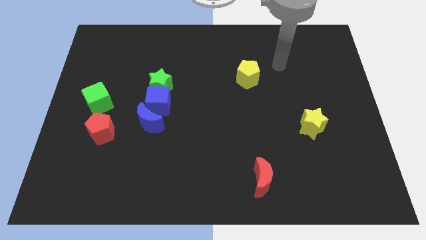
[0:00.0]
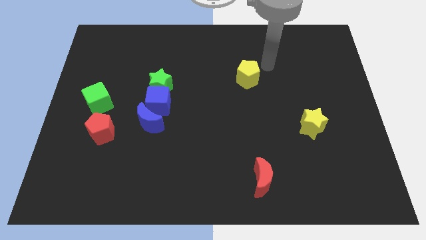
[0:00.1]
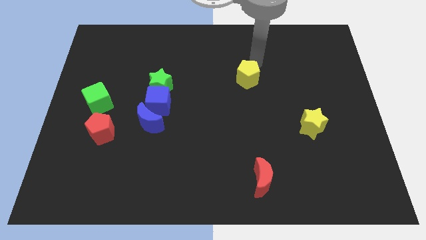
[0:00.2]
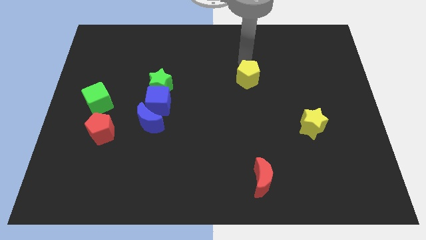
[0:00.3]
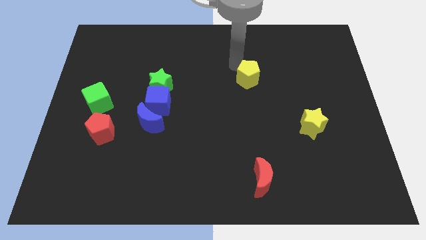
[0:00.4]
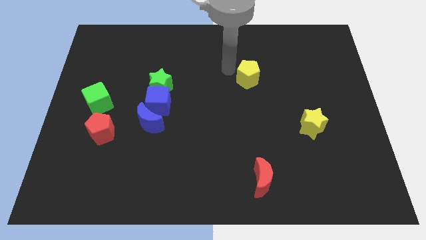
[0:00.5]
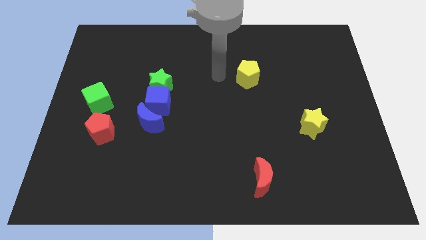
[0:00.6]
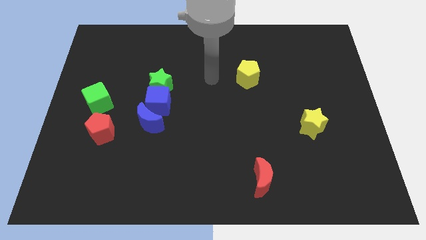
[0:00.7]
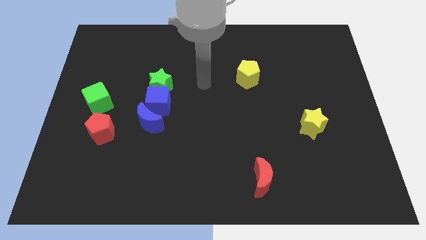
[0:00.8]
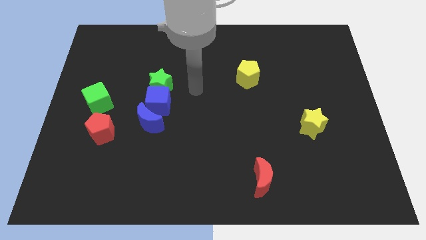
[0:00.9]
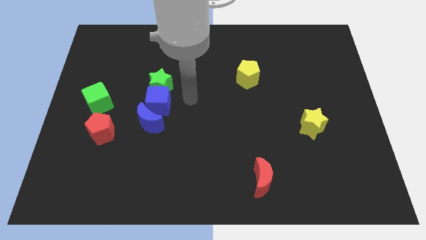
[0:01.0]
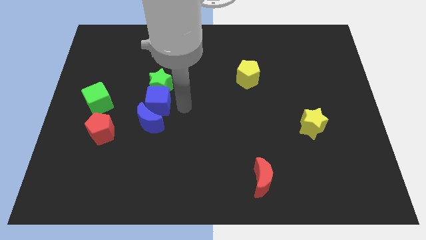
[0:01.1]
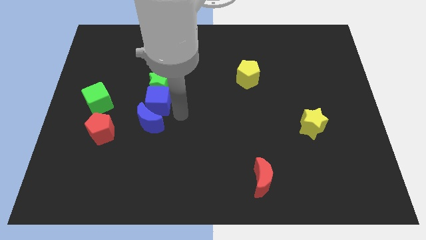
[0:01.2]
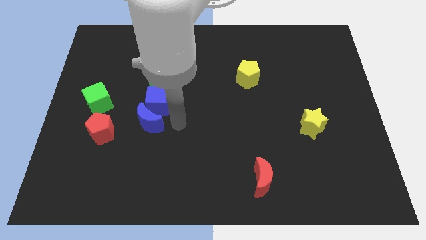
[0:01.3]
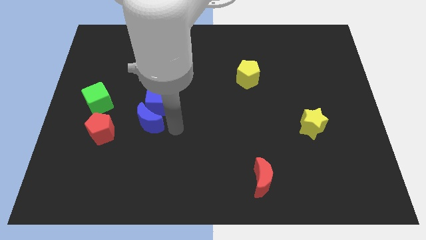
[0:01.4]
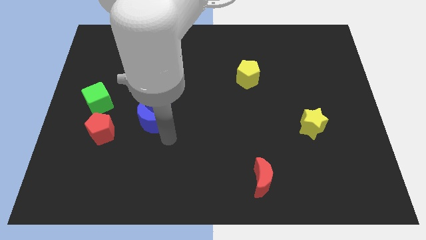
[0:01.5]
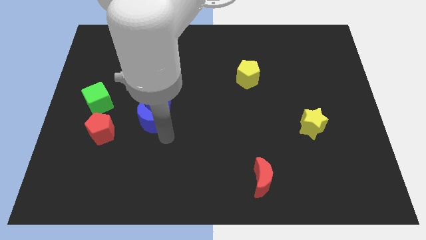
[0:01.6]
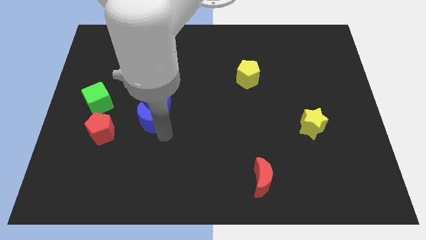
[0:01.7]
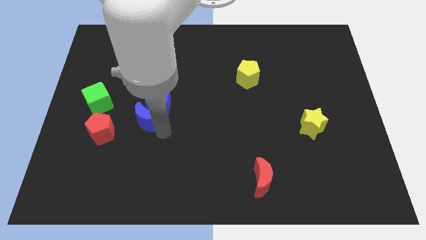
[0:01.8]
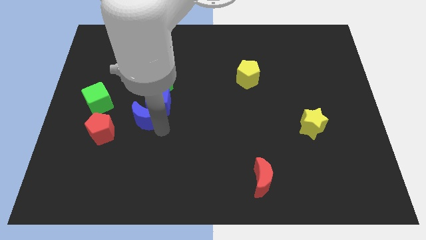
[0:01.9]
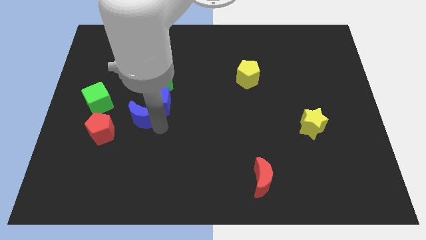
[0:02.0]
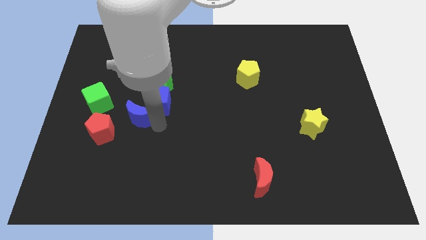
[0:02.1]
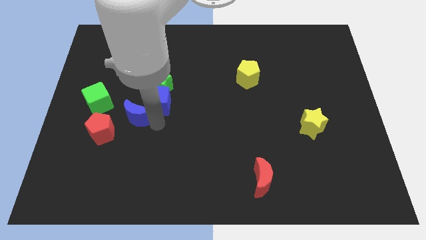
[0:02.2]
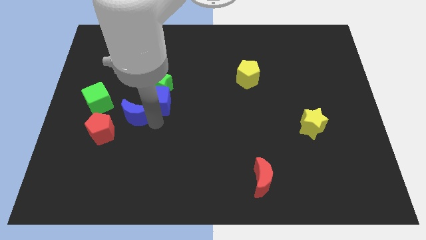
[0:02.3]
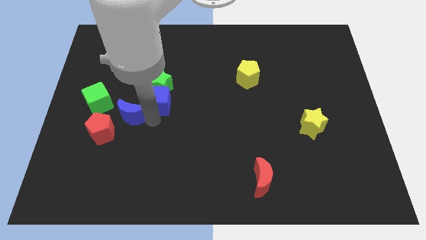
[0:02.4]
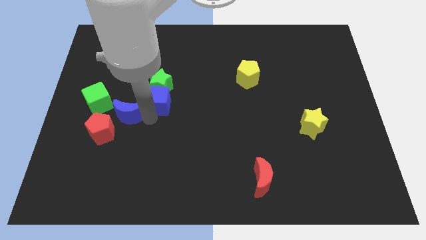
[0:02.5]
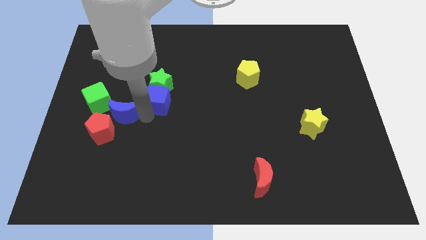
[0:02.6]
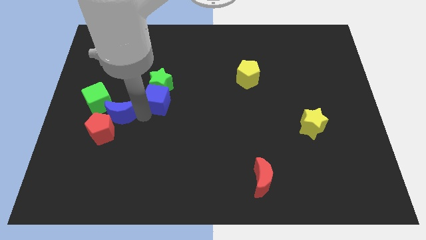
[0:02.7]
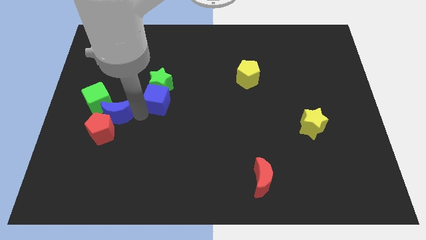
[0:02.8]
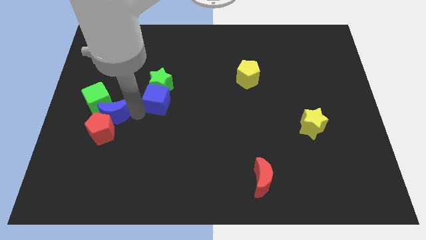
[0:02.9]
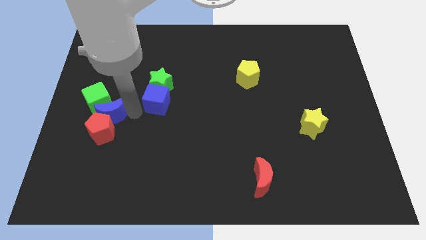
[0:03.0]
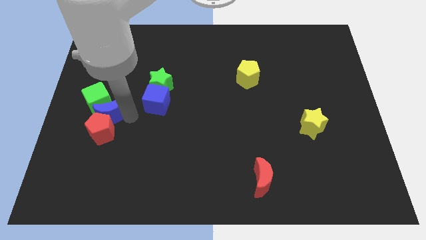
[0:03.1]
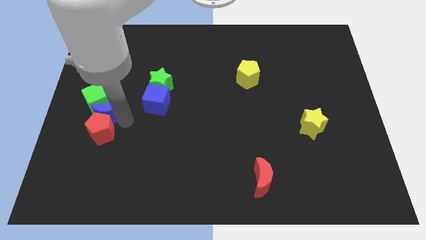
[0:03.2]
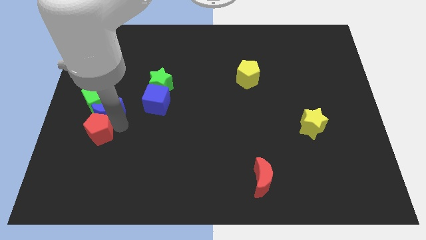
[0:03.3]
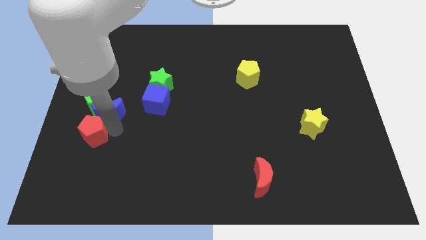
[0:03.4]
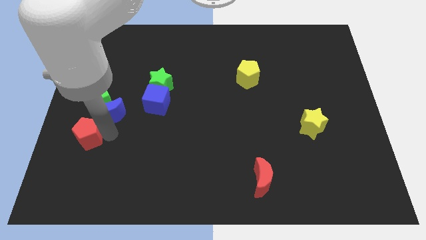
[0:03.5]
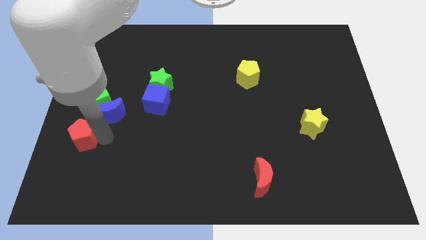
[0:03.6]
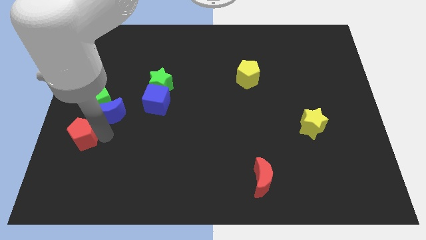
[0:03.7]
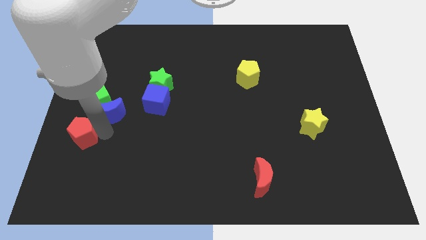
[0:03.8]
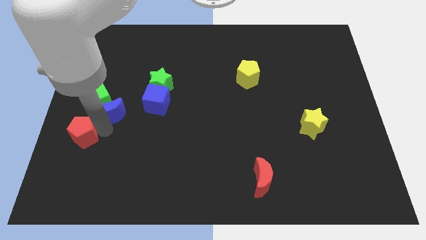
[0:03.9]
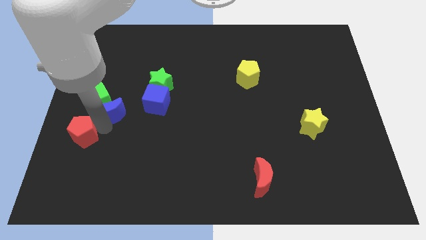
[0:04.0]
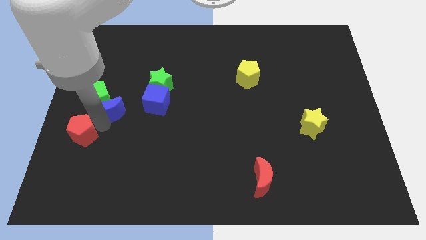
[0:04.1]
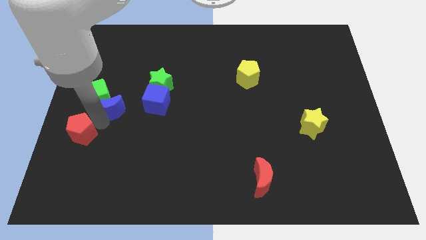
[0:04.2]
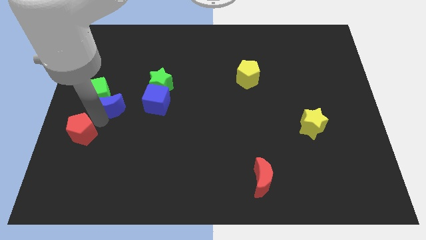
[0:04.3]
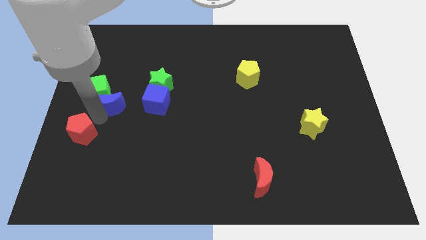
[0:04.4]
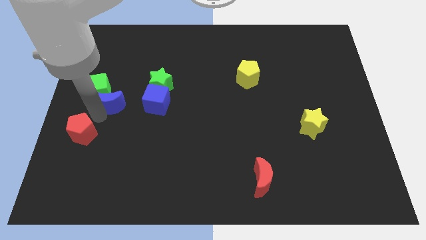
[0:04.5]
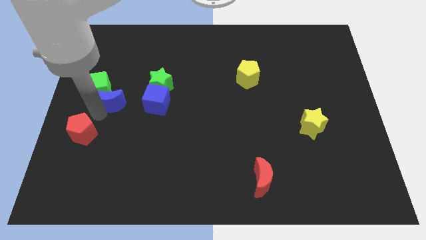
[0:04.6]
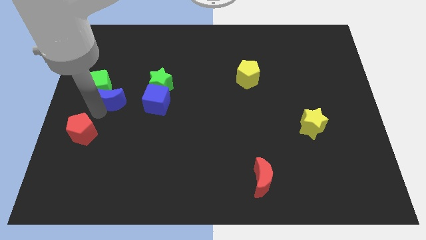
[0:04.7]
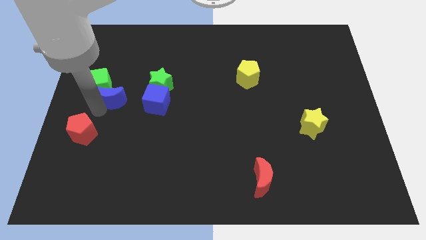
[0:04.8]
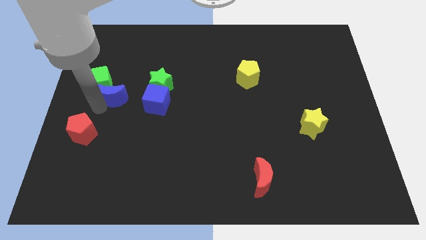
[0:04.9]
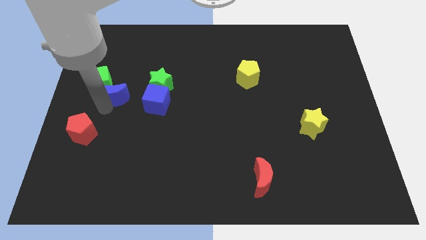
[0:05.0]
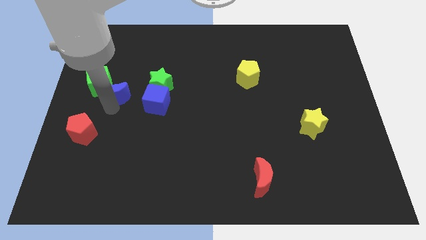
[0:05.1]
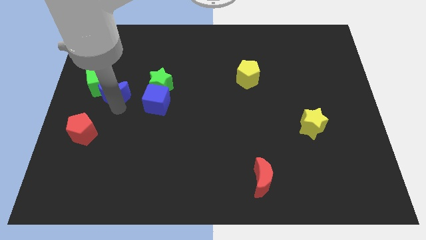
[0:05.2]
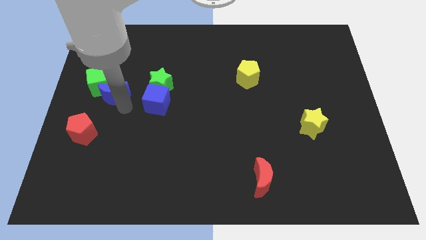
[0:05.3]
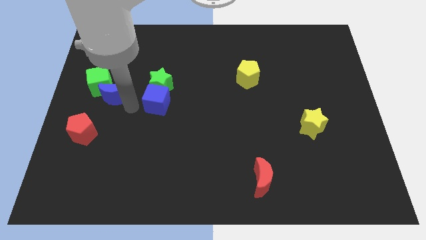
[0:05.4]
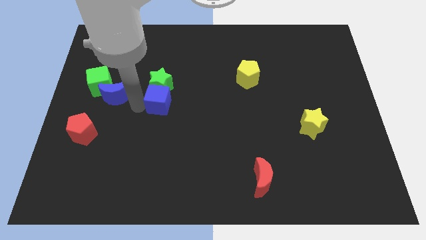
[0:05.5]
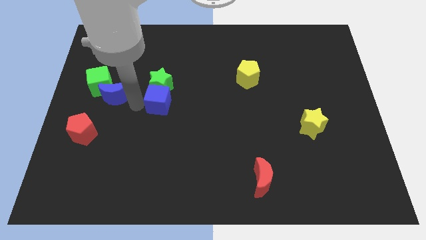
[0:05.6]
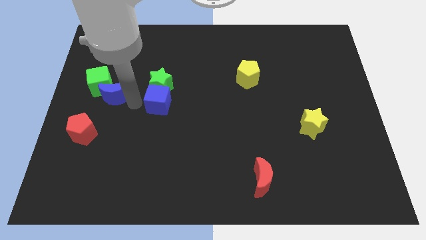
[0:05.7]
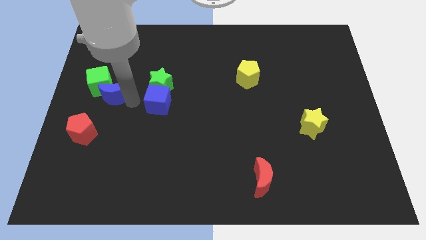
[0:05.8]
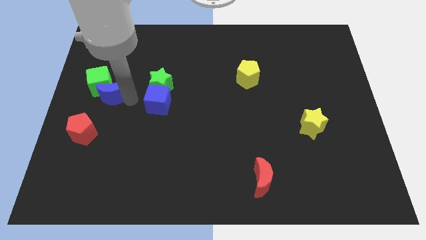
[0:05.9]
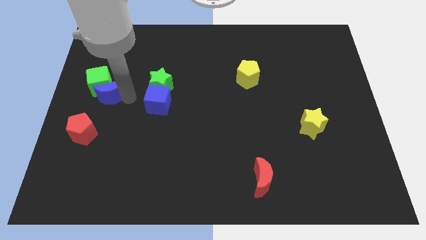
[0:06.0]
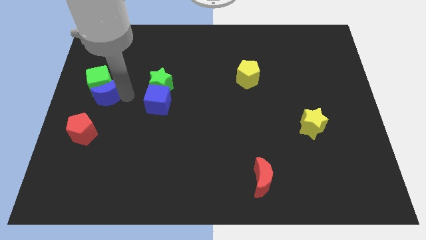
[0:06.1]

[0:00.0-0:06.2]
put the blue moon to the left side of the board

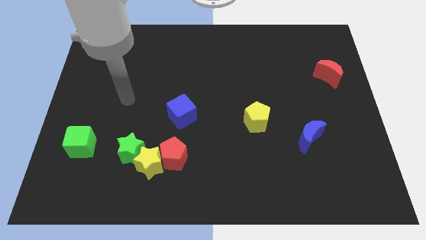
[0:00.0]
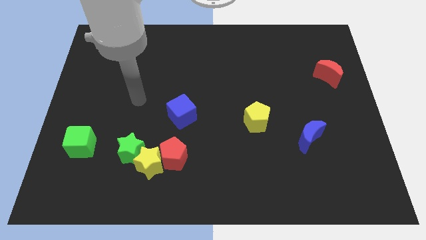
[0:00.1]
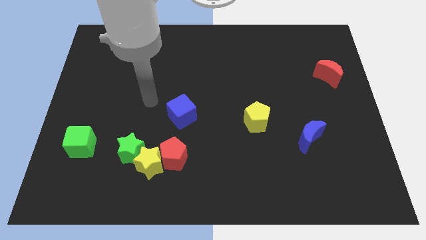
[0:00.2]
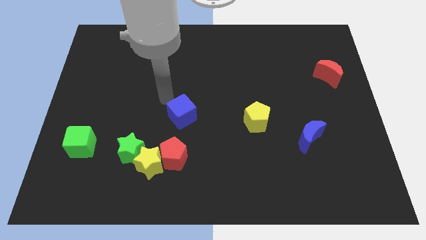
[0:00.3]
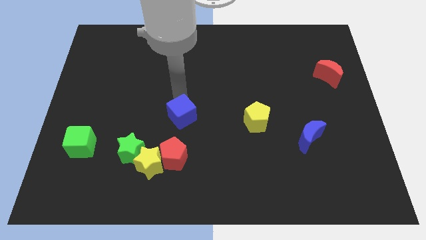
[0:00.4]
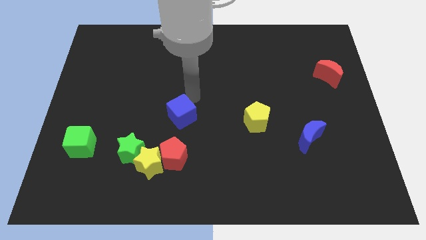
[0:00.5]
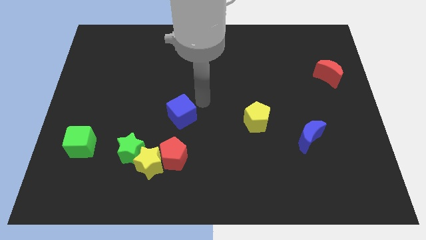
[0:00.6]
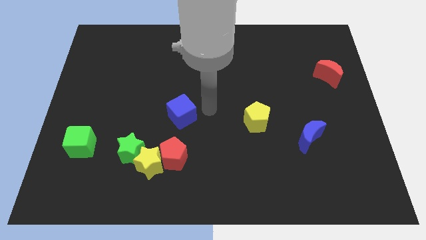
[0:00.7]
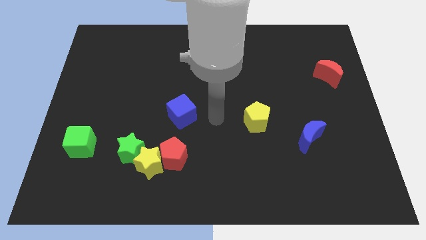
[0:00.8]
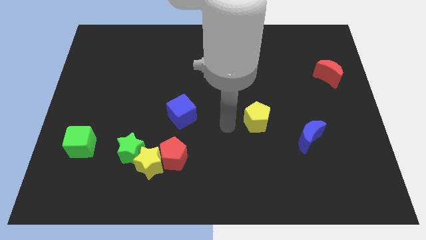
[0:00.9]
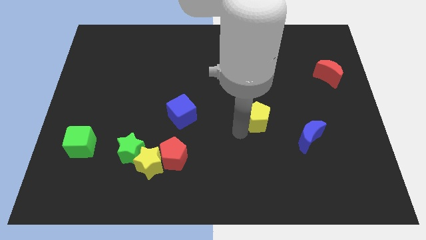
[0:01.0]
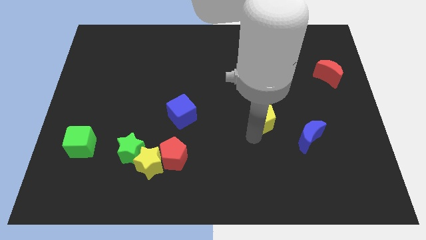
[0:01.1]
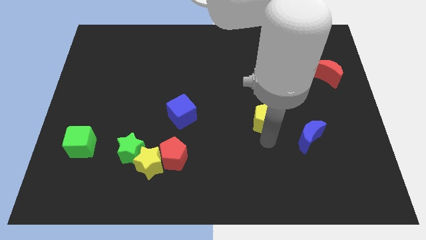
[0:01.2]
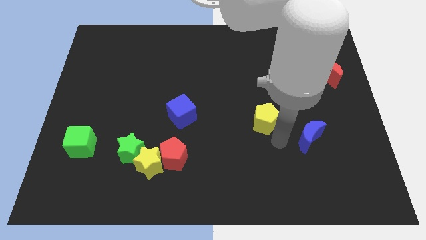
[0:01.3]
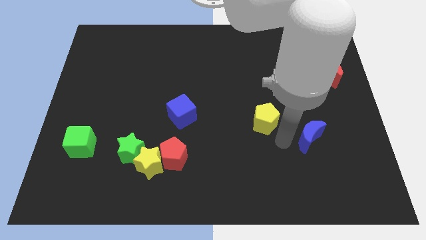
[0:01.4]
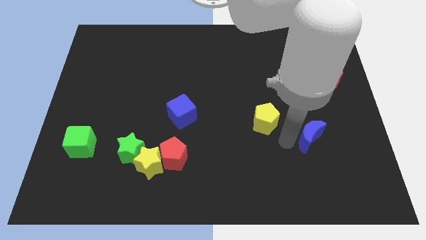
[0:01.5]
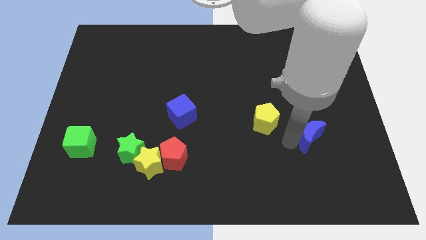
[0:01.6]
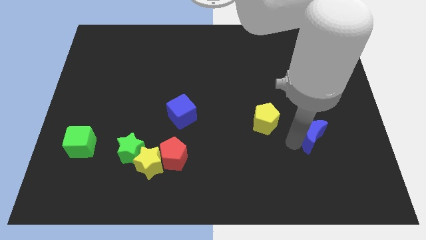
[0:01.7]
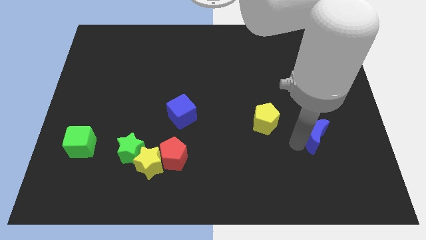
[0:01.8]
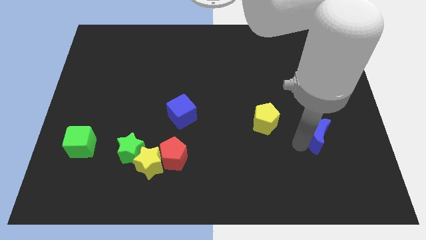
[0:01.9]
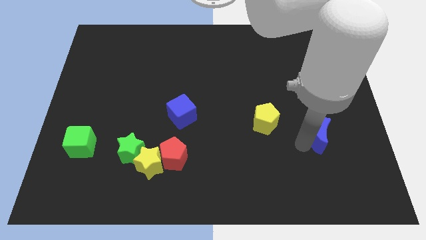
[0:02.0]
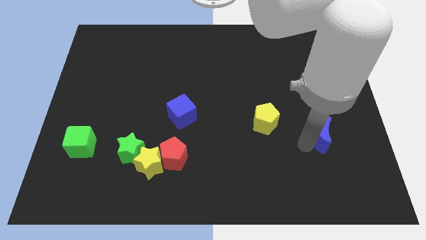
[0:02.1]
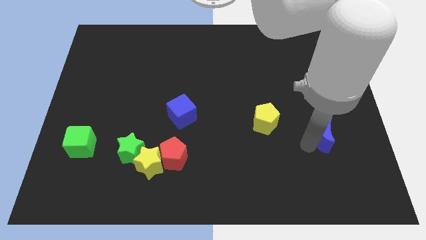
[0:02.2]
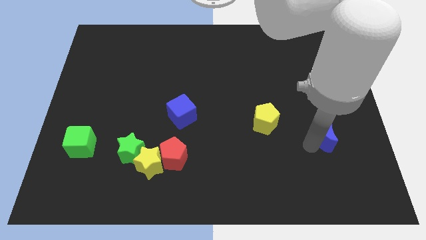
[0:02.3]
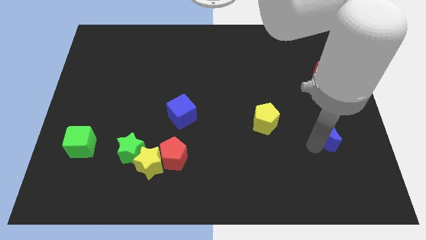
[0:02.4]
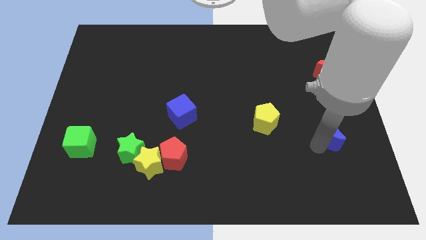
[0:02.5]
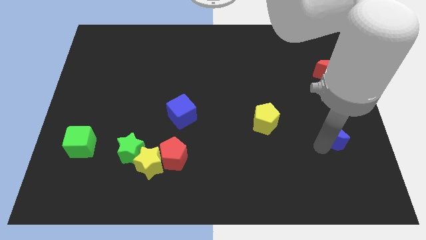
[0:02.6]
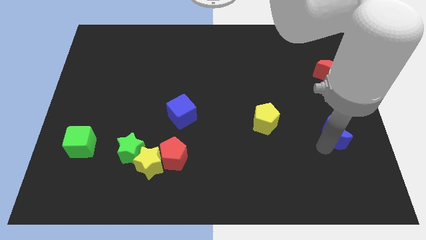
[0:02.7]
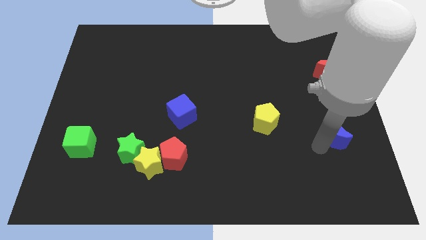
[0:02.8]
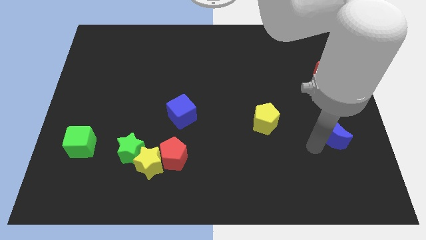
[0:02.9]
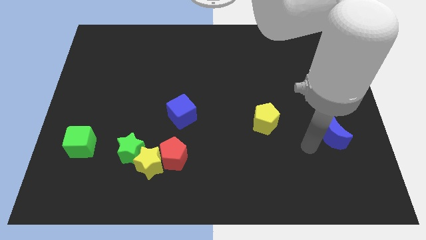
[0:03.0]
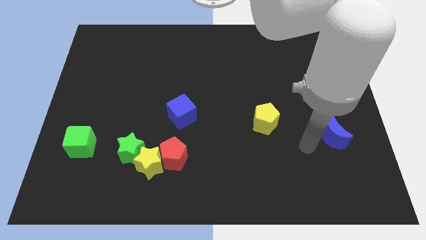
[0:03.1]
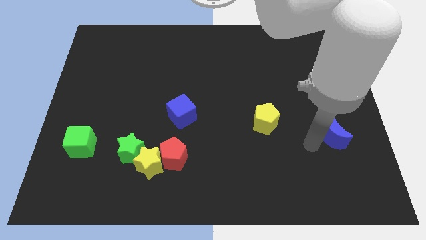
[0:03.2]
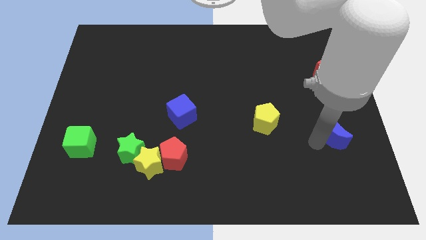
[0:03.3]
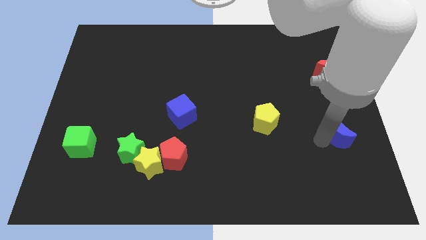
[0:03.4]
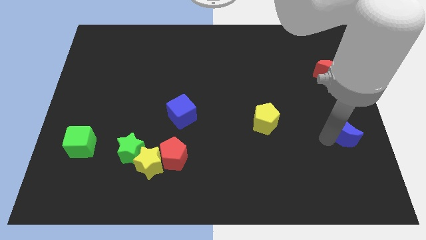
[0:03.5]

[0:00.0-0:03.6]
push the blue moon to the right side of the board
